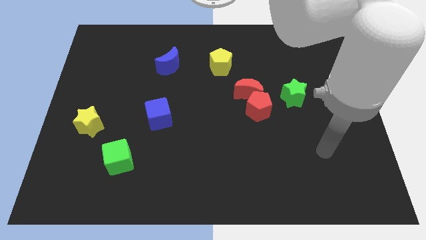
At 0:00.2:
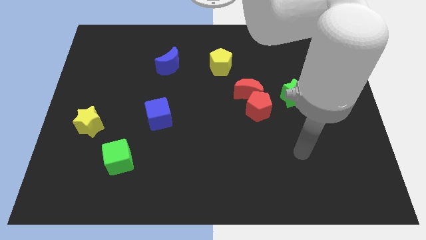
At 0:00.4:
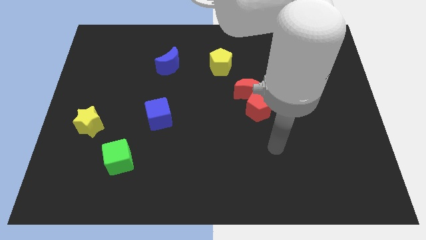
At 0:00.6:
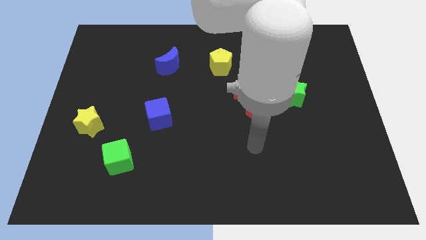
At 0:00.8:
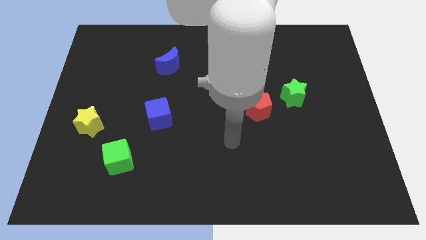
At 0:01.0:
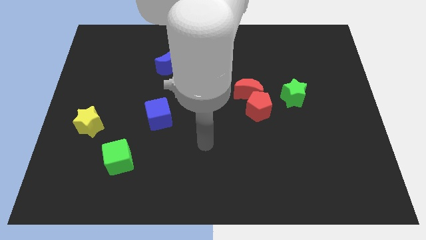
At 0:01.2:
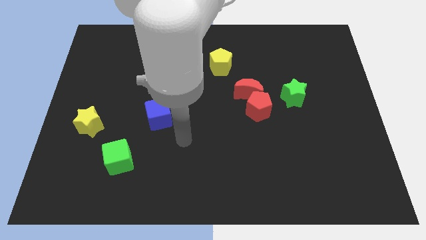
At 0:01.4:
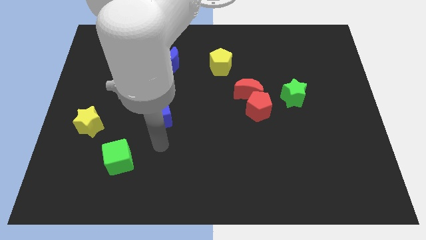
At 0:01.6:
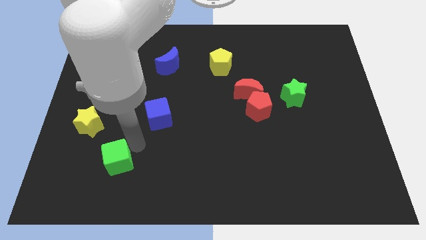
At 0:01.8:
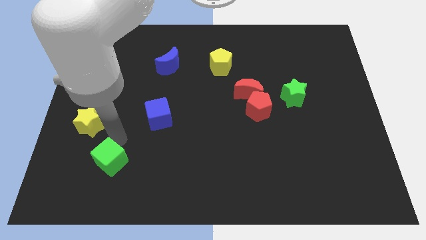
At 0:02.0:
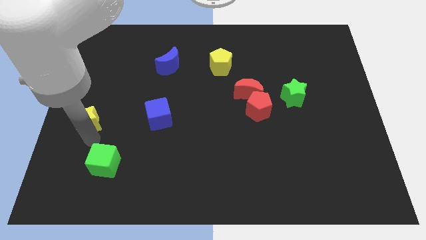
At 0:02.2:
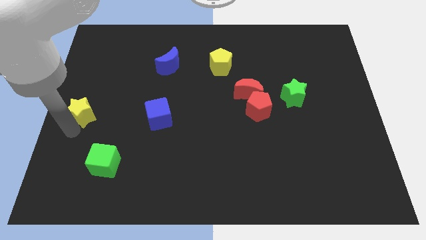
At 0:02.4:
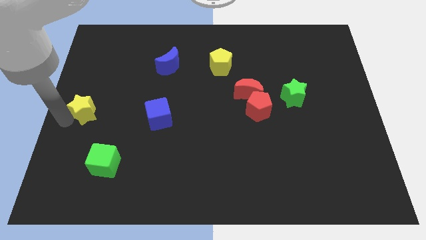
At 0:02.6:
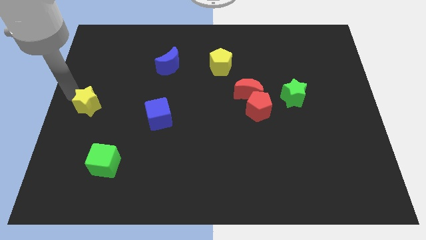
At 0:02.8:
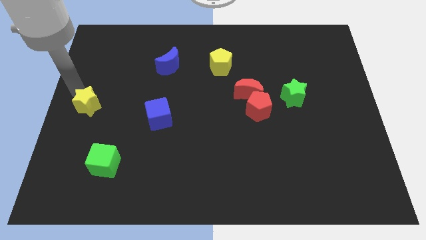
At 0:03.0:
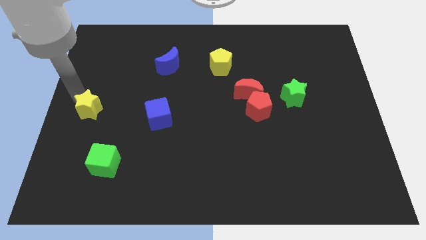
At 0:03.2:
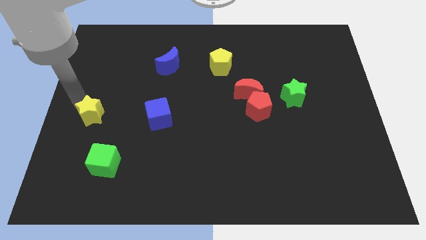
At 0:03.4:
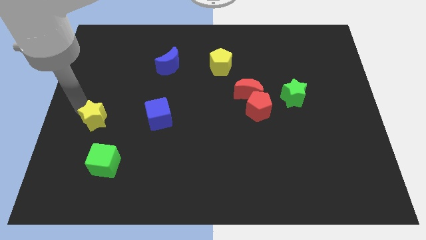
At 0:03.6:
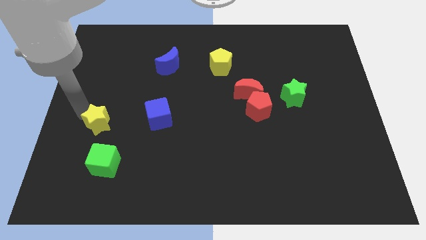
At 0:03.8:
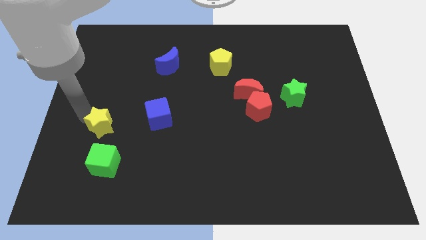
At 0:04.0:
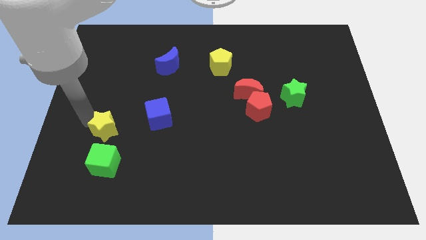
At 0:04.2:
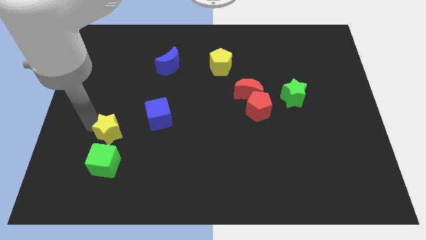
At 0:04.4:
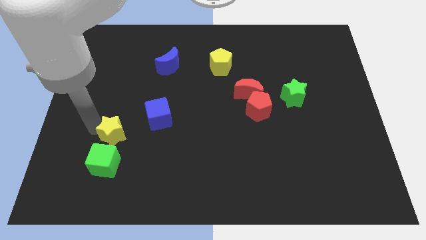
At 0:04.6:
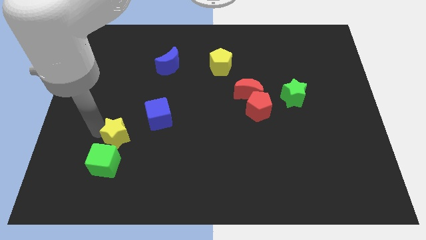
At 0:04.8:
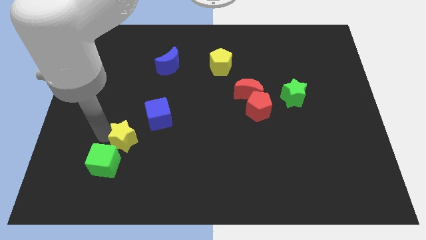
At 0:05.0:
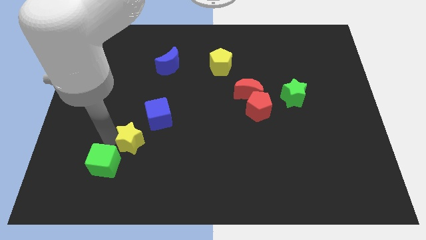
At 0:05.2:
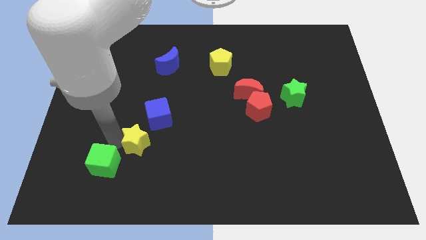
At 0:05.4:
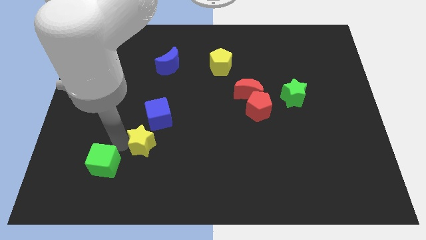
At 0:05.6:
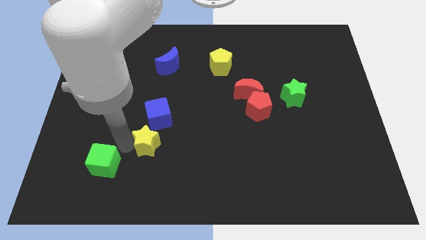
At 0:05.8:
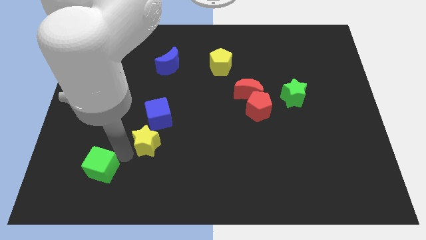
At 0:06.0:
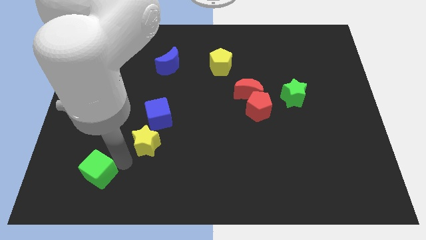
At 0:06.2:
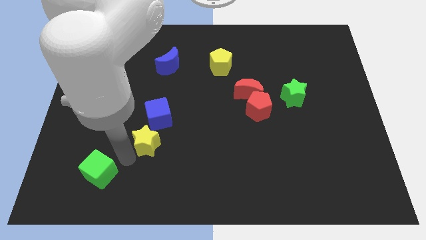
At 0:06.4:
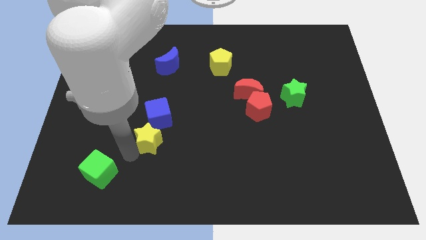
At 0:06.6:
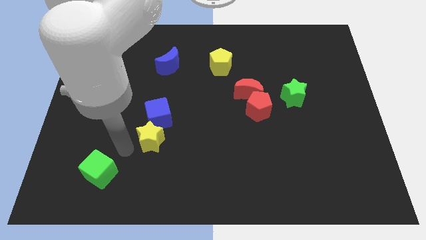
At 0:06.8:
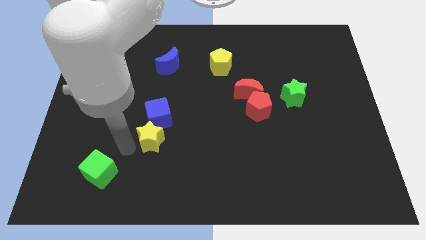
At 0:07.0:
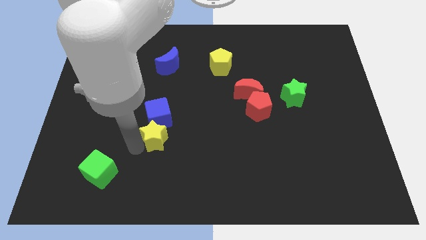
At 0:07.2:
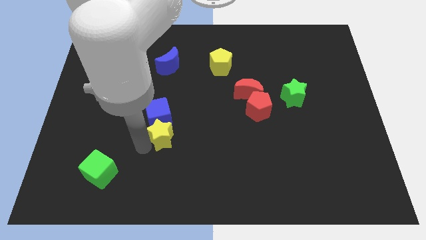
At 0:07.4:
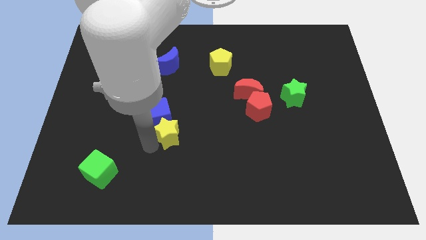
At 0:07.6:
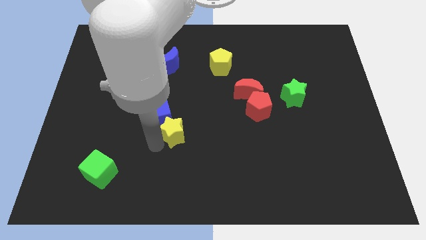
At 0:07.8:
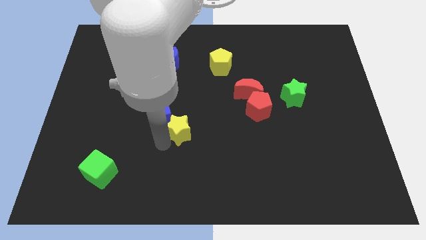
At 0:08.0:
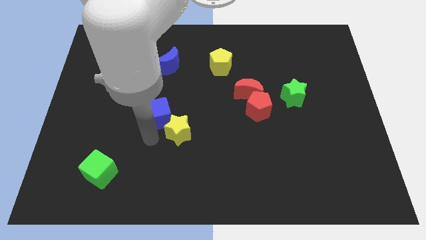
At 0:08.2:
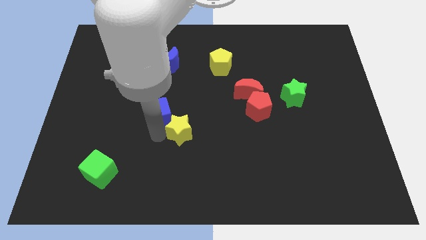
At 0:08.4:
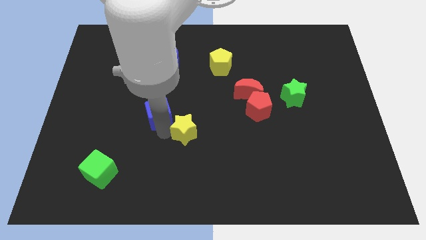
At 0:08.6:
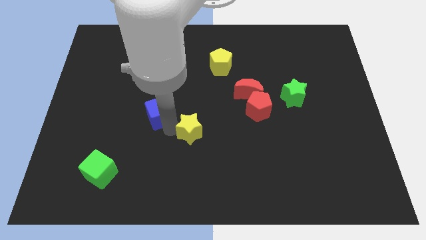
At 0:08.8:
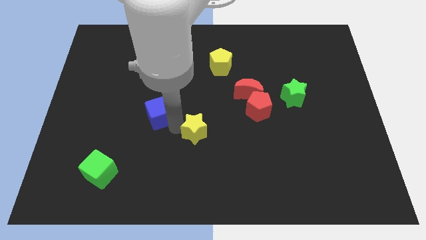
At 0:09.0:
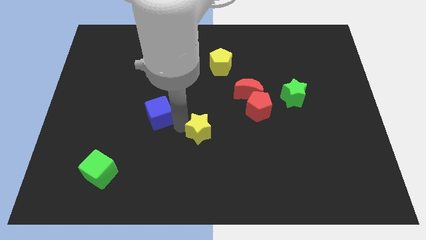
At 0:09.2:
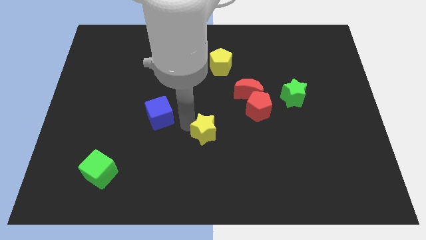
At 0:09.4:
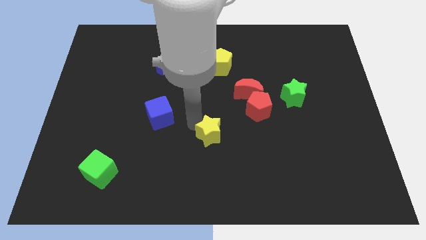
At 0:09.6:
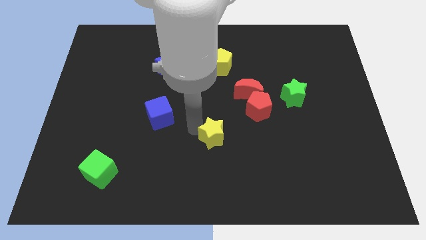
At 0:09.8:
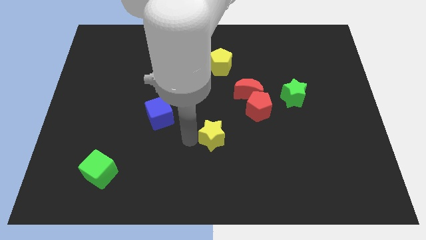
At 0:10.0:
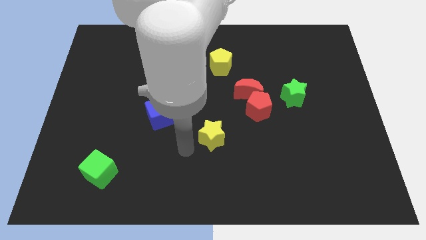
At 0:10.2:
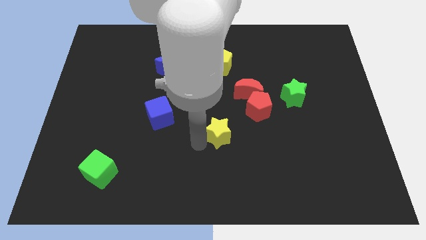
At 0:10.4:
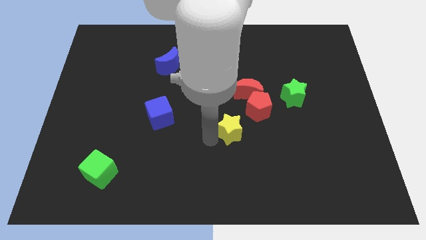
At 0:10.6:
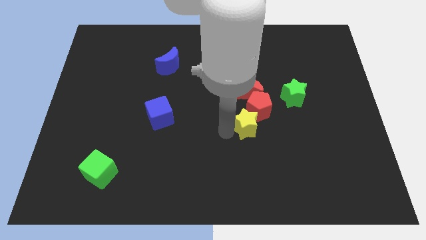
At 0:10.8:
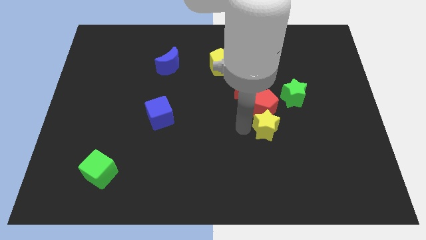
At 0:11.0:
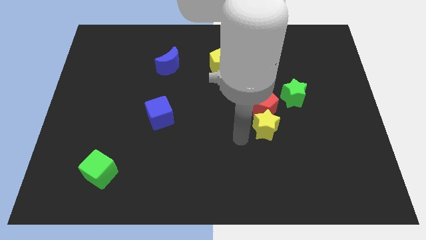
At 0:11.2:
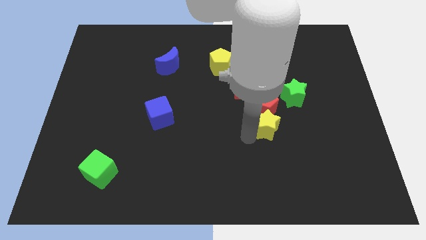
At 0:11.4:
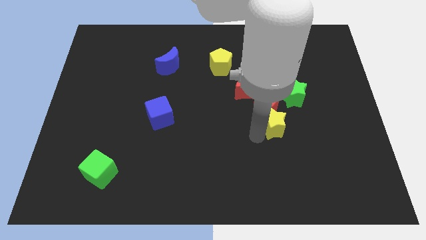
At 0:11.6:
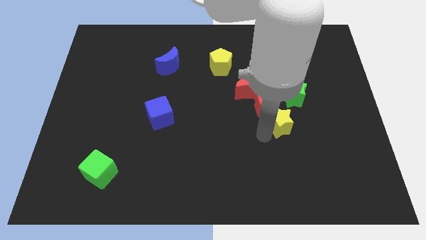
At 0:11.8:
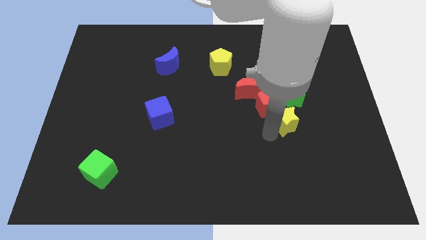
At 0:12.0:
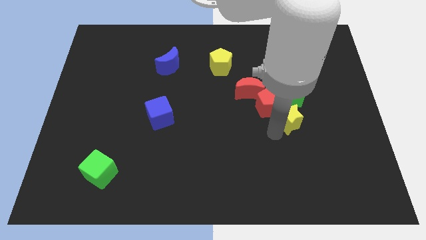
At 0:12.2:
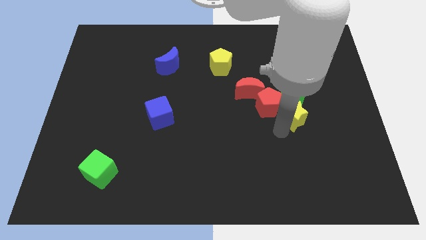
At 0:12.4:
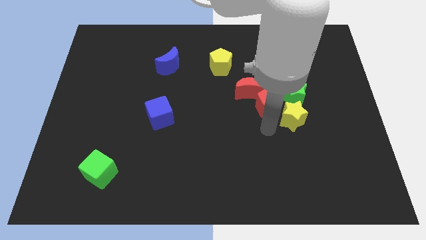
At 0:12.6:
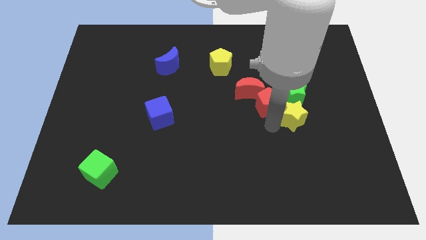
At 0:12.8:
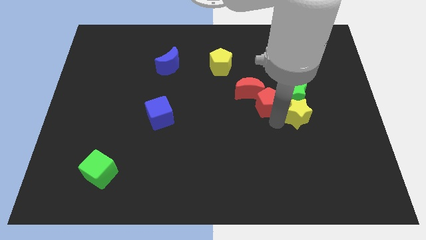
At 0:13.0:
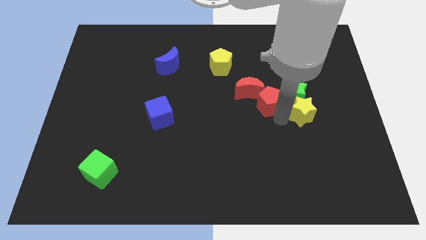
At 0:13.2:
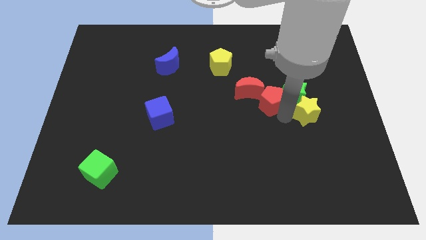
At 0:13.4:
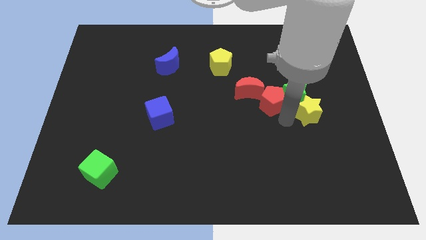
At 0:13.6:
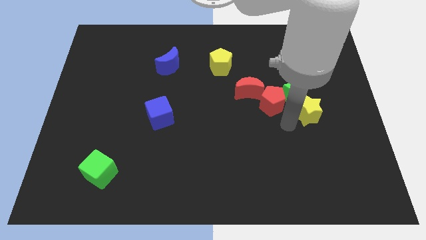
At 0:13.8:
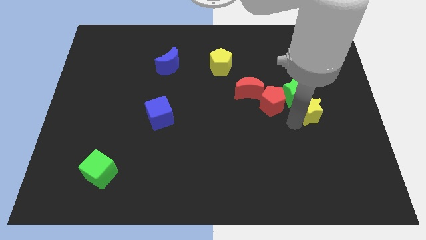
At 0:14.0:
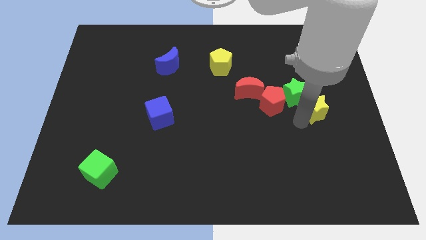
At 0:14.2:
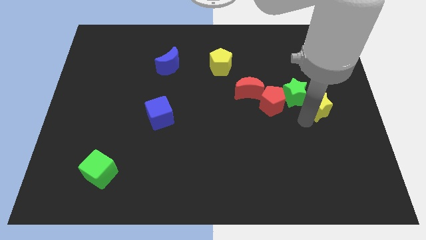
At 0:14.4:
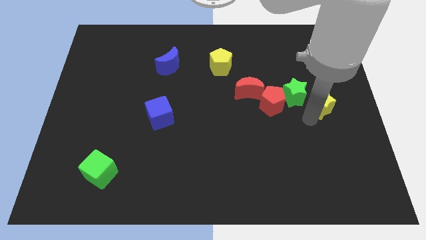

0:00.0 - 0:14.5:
put the yellow star to the right side
